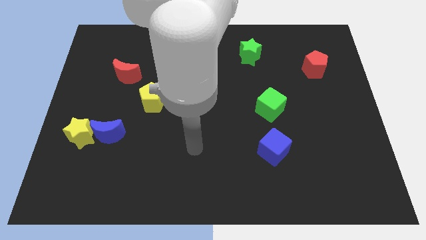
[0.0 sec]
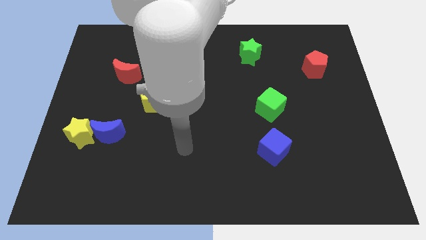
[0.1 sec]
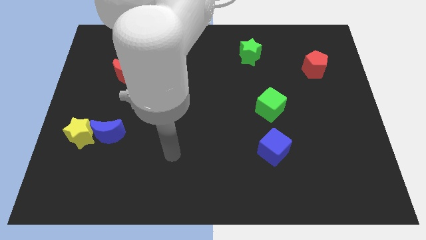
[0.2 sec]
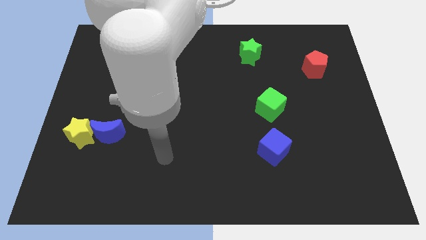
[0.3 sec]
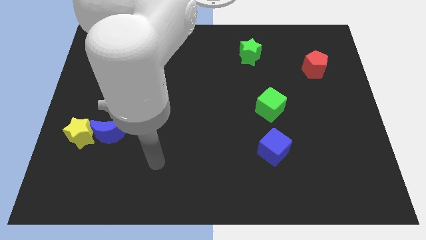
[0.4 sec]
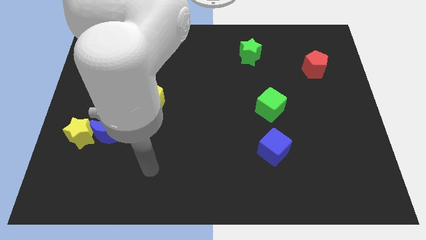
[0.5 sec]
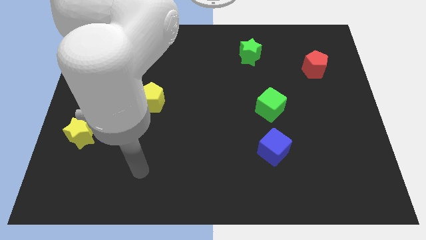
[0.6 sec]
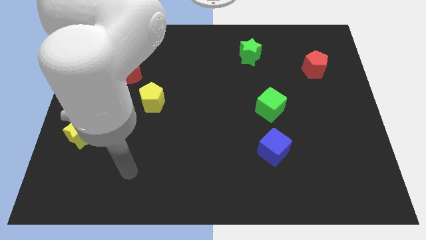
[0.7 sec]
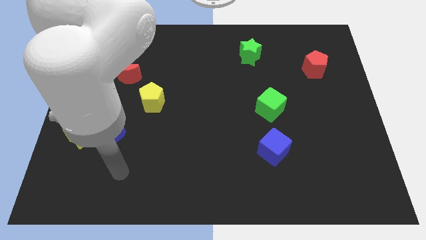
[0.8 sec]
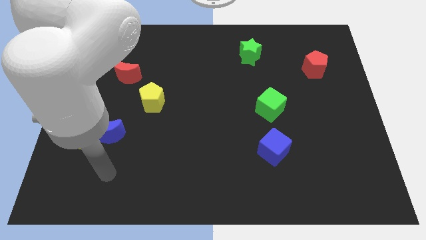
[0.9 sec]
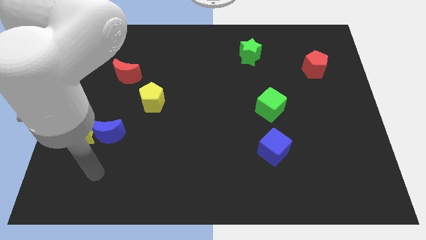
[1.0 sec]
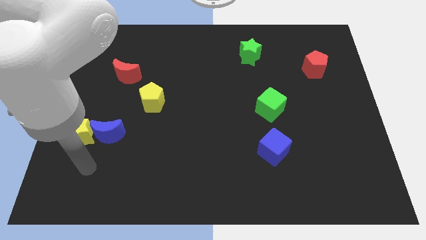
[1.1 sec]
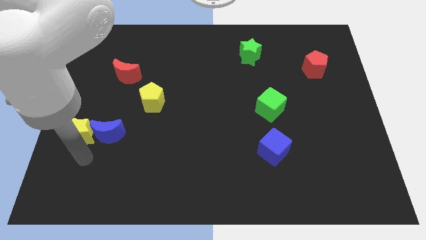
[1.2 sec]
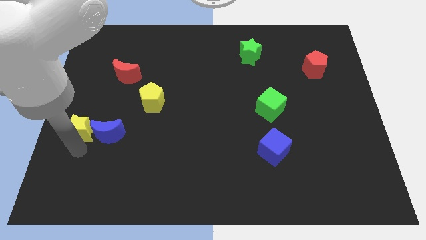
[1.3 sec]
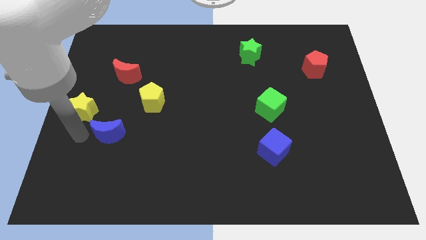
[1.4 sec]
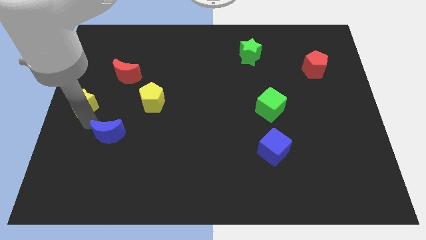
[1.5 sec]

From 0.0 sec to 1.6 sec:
pull the blue moon apart from the yellow star

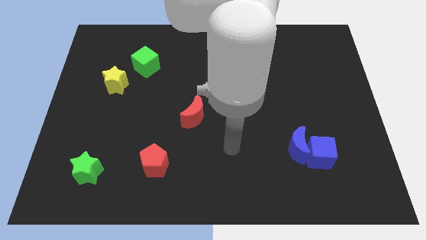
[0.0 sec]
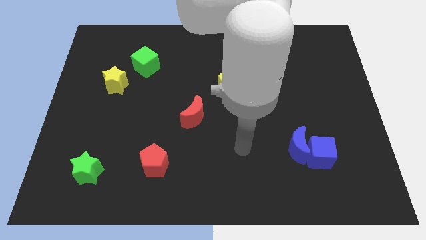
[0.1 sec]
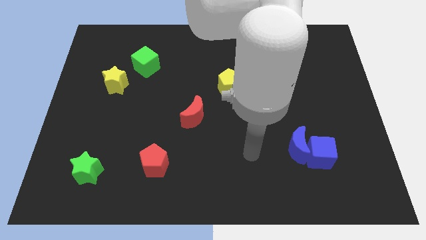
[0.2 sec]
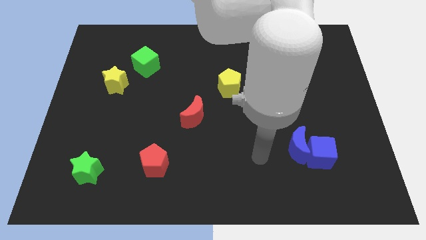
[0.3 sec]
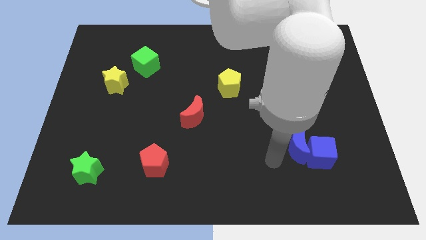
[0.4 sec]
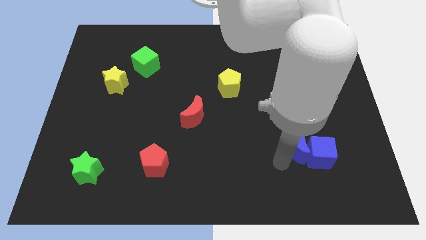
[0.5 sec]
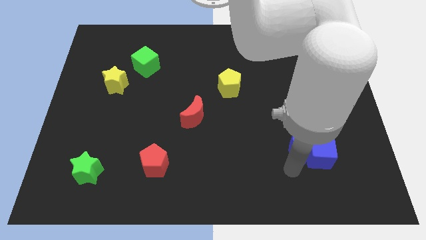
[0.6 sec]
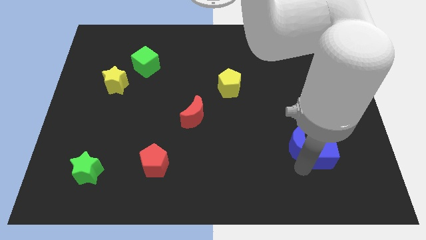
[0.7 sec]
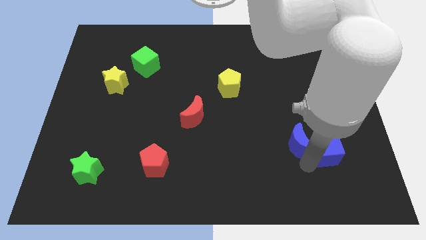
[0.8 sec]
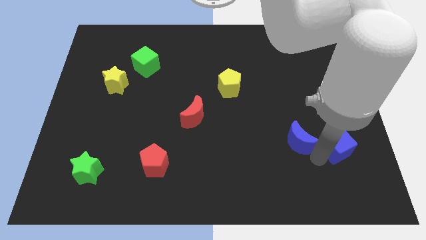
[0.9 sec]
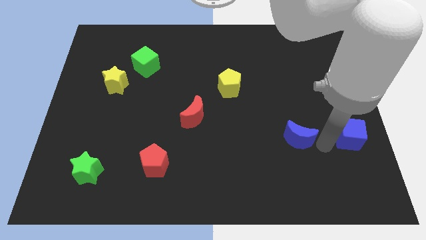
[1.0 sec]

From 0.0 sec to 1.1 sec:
pull the blue moon apart from the blue cube

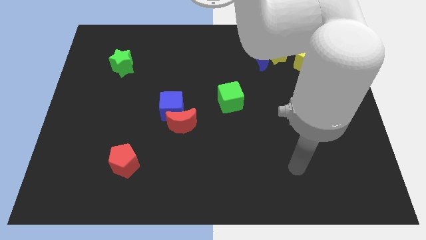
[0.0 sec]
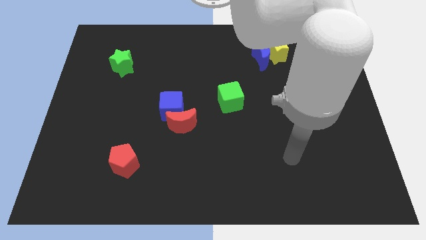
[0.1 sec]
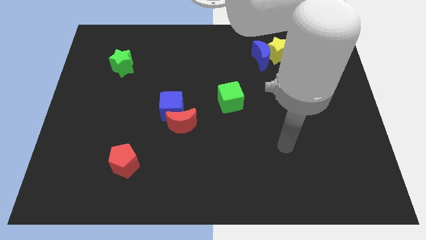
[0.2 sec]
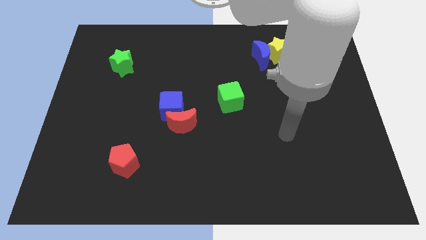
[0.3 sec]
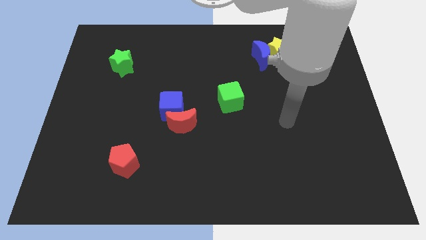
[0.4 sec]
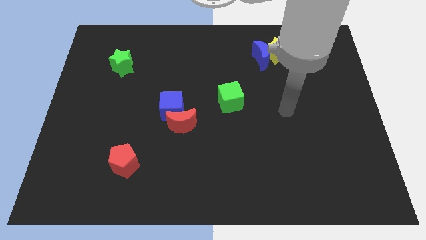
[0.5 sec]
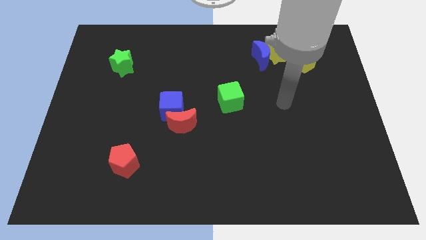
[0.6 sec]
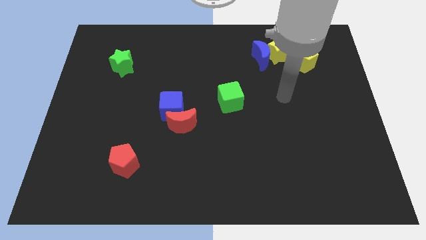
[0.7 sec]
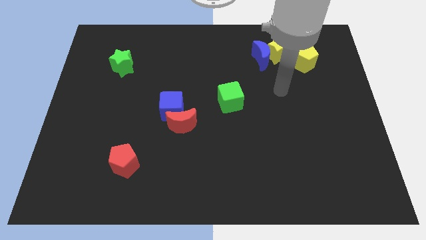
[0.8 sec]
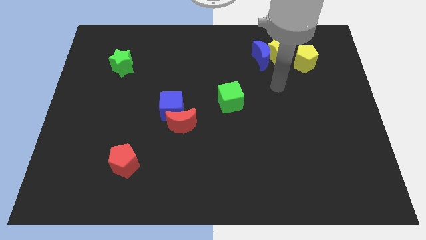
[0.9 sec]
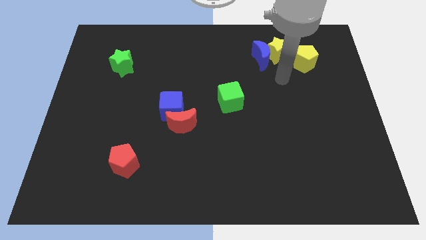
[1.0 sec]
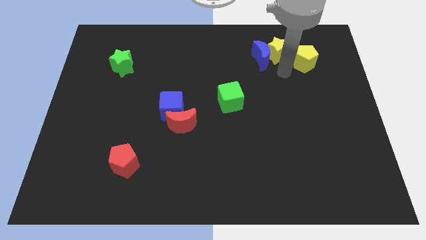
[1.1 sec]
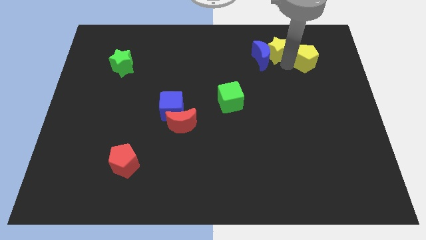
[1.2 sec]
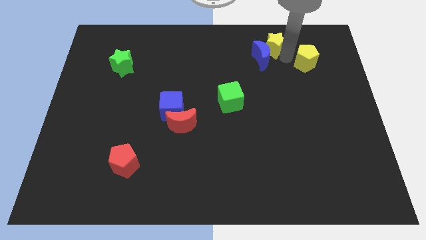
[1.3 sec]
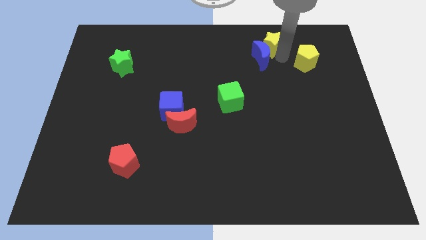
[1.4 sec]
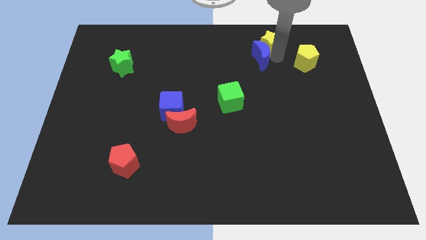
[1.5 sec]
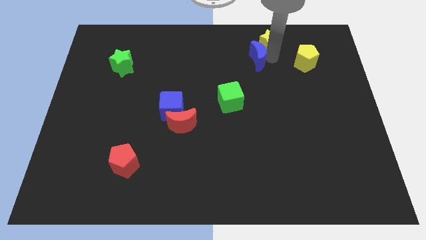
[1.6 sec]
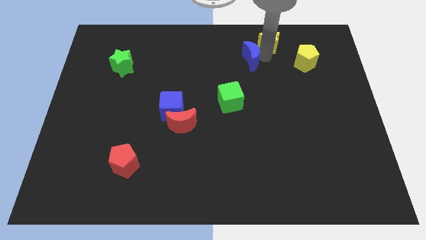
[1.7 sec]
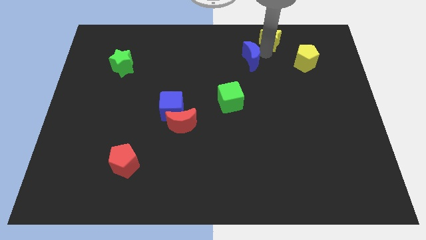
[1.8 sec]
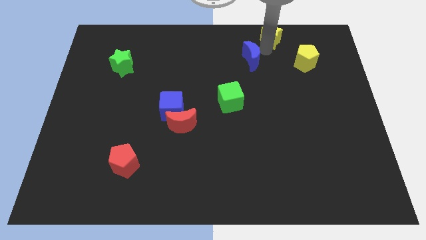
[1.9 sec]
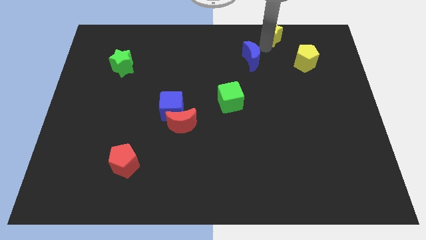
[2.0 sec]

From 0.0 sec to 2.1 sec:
separate the blue moon from the yellow star

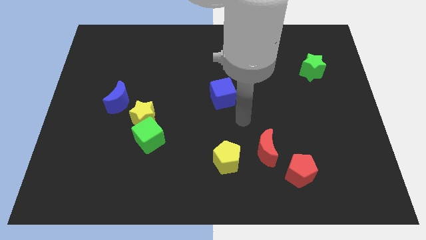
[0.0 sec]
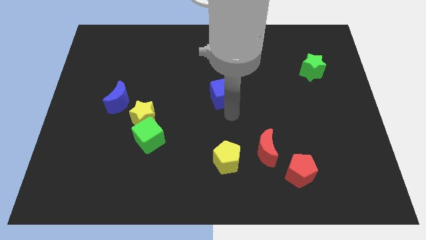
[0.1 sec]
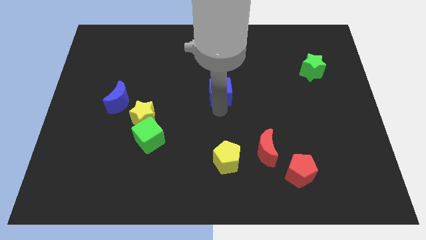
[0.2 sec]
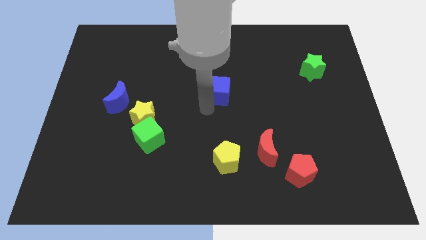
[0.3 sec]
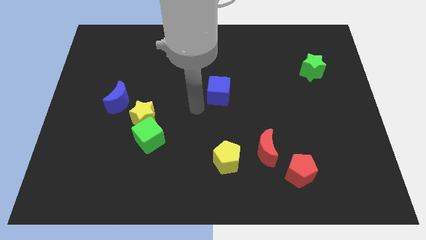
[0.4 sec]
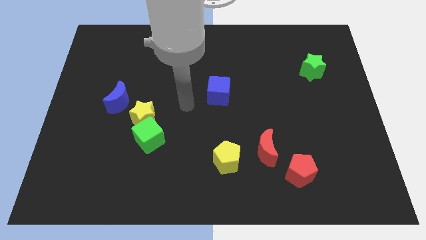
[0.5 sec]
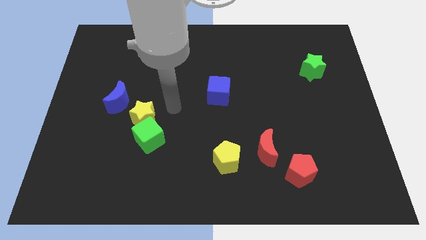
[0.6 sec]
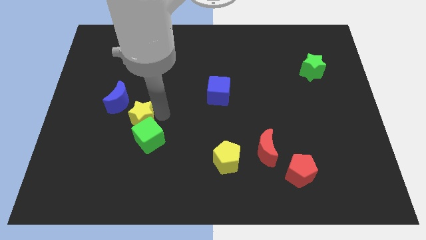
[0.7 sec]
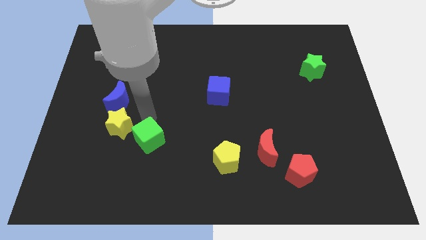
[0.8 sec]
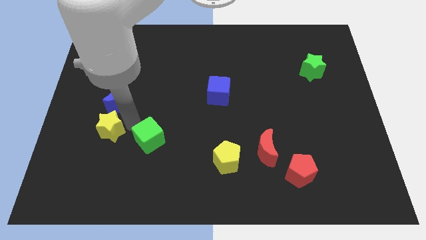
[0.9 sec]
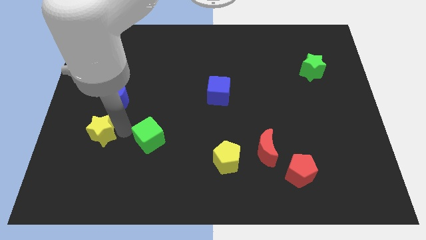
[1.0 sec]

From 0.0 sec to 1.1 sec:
pull the green cube apart from the yellow star

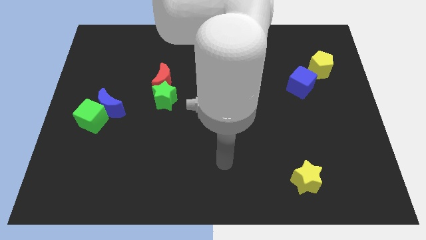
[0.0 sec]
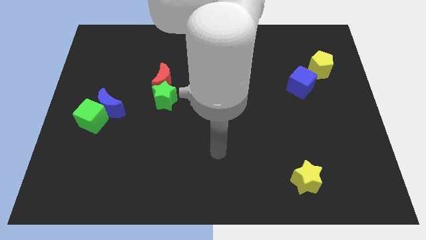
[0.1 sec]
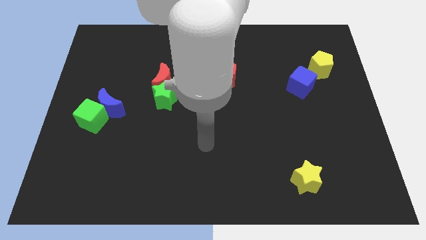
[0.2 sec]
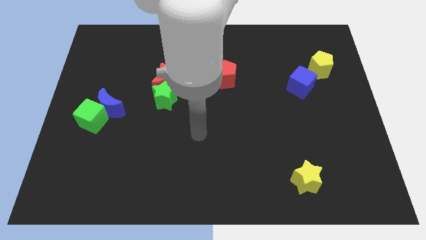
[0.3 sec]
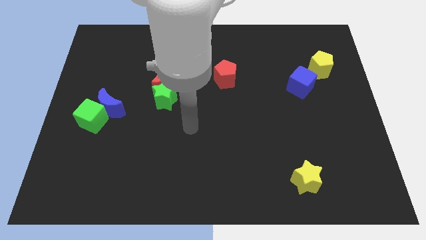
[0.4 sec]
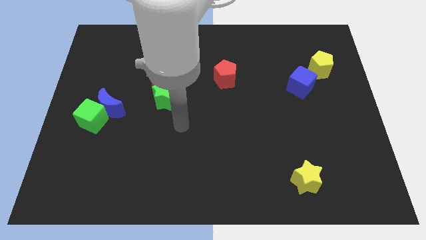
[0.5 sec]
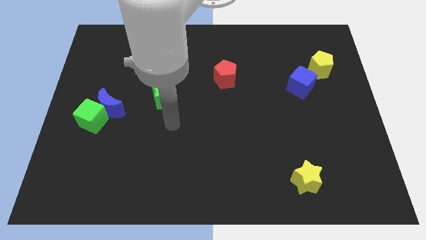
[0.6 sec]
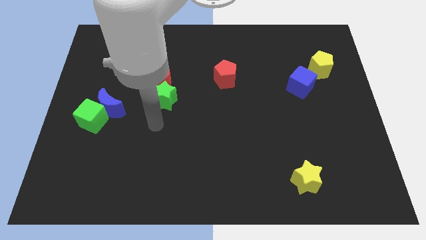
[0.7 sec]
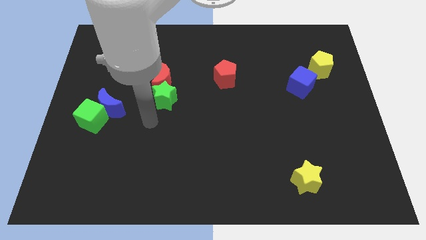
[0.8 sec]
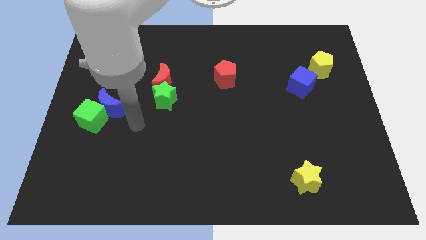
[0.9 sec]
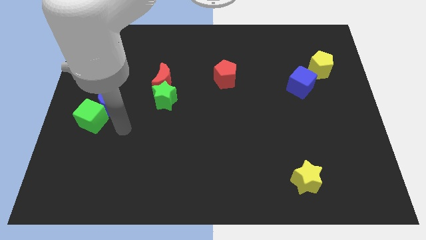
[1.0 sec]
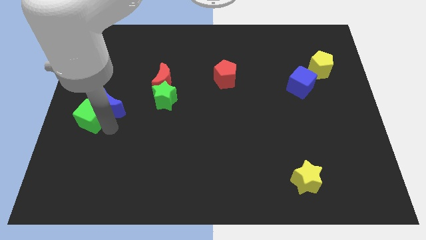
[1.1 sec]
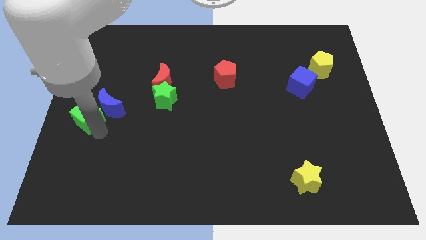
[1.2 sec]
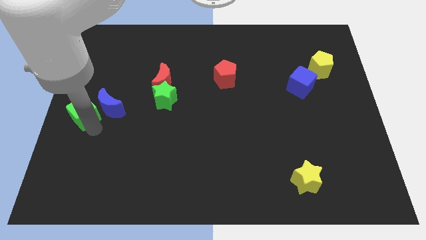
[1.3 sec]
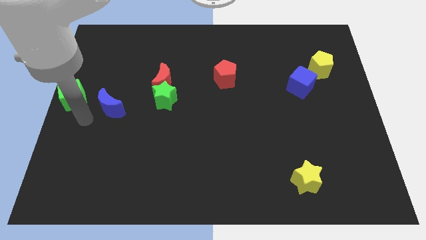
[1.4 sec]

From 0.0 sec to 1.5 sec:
separate the blue moon from the green cube

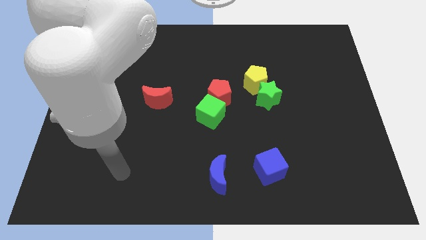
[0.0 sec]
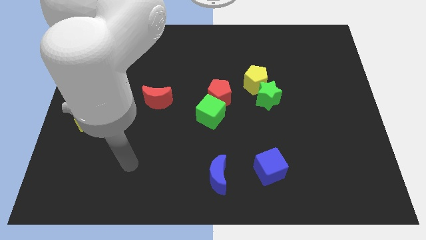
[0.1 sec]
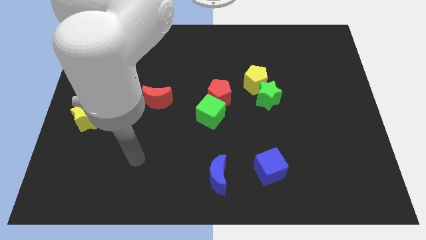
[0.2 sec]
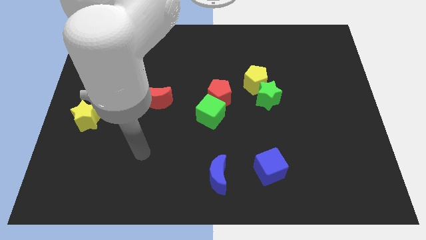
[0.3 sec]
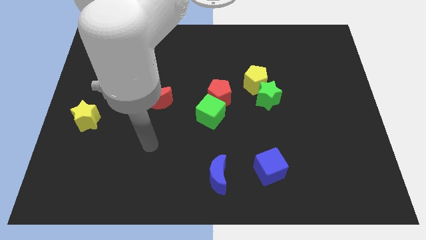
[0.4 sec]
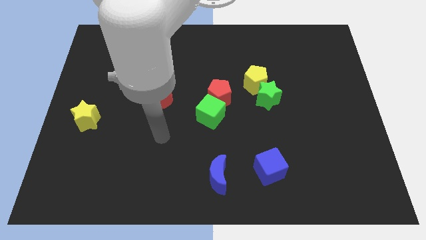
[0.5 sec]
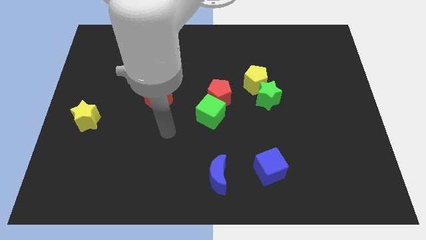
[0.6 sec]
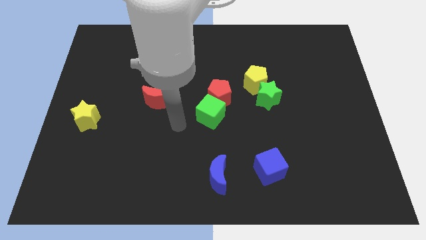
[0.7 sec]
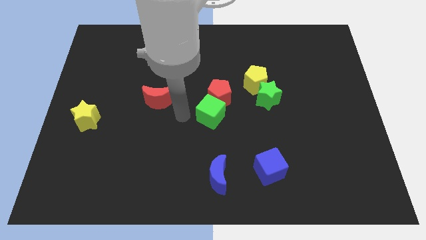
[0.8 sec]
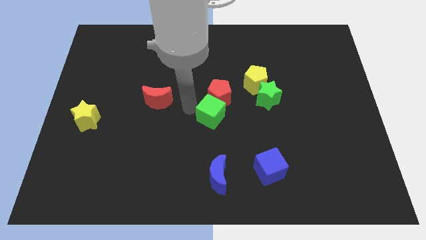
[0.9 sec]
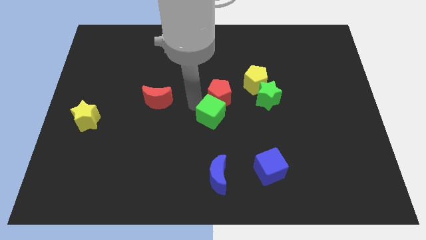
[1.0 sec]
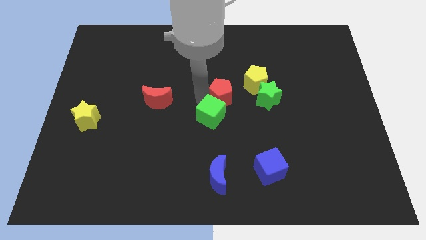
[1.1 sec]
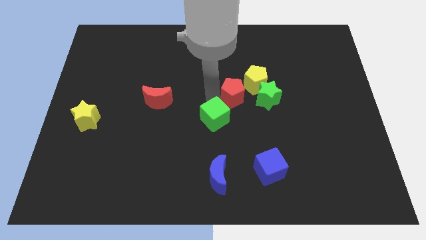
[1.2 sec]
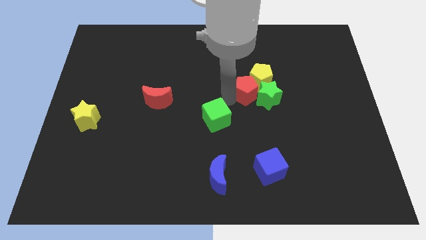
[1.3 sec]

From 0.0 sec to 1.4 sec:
pull the green cube apart from the red pentagon

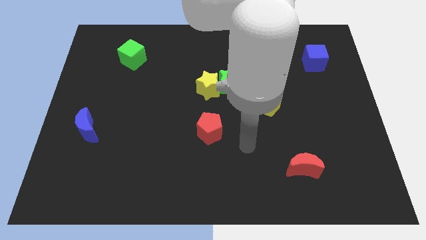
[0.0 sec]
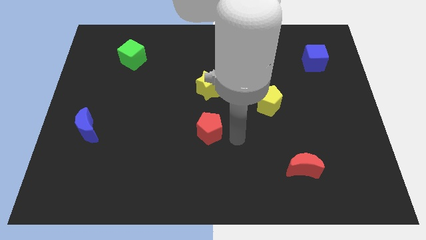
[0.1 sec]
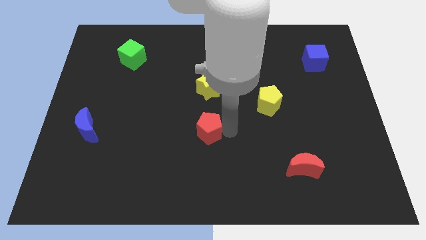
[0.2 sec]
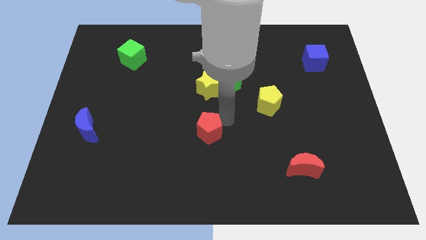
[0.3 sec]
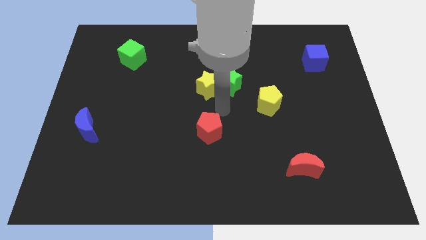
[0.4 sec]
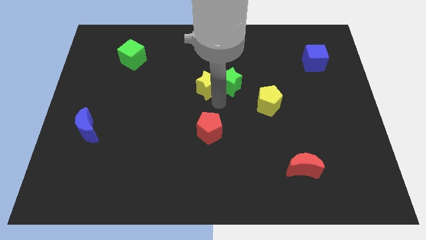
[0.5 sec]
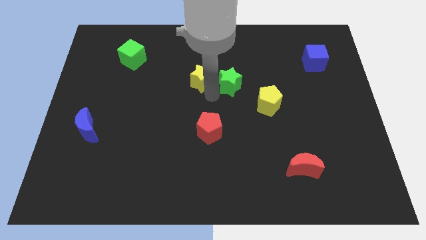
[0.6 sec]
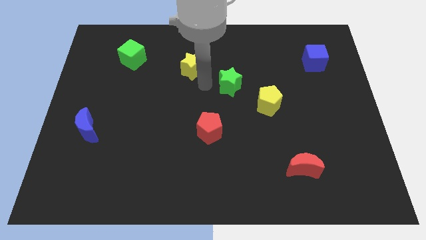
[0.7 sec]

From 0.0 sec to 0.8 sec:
pull the green star apart from the yellow star
